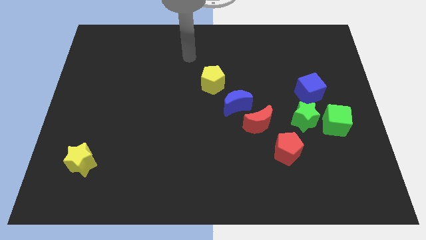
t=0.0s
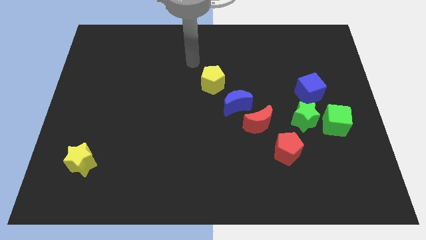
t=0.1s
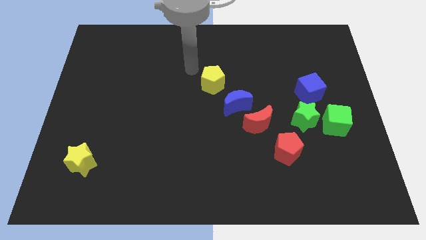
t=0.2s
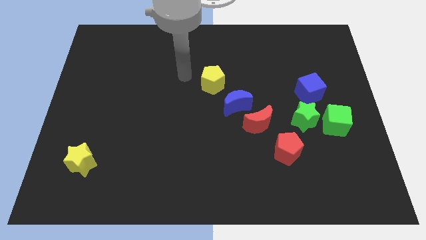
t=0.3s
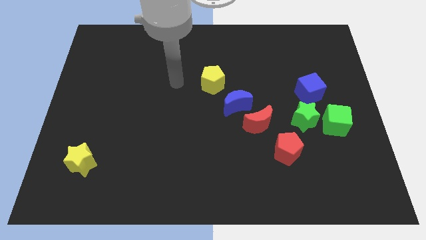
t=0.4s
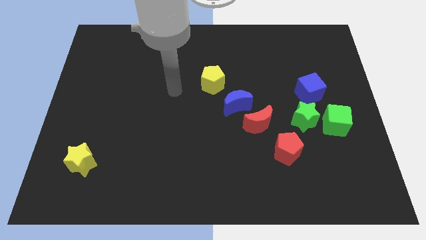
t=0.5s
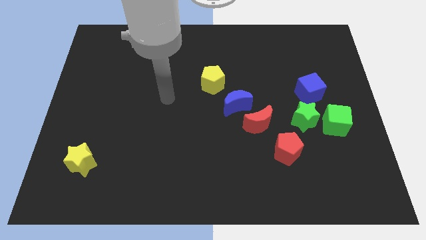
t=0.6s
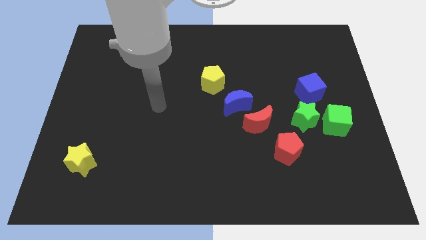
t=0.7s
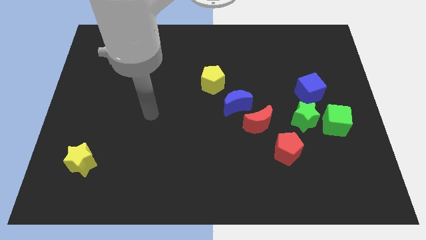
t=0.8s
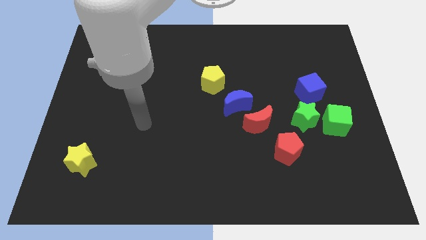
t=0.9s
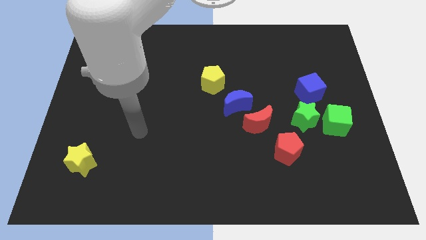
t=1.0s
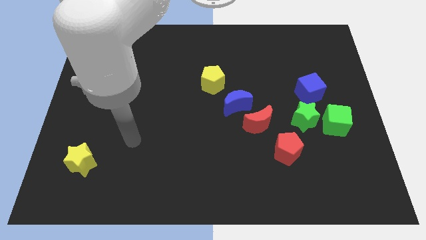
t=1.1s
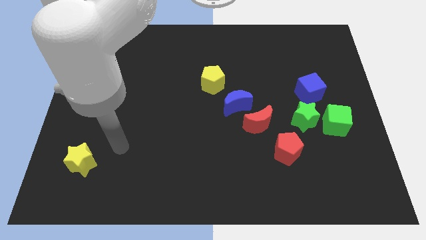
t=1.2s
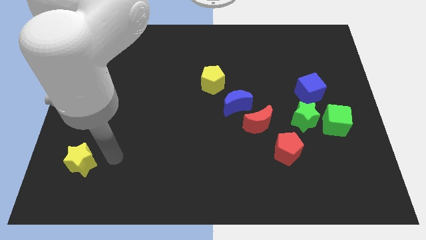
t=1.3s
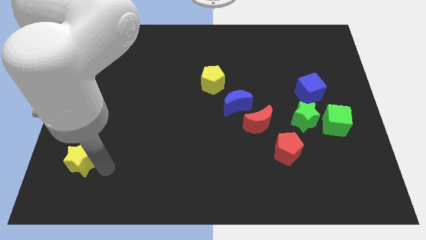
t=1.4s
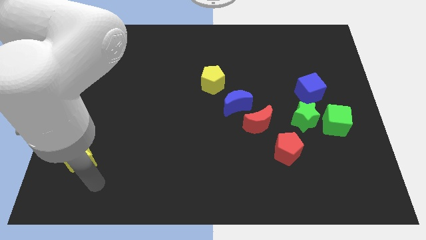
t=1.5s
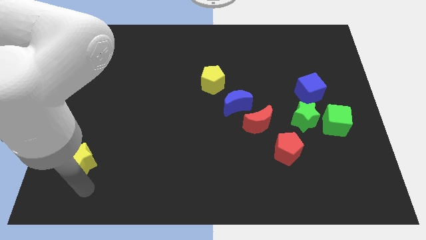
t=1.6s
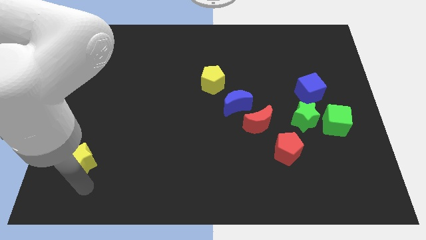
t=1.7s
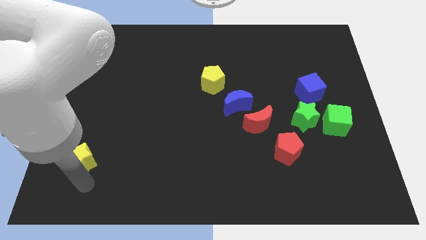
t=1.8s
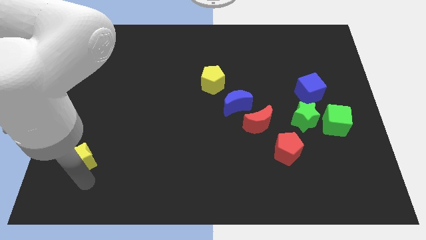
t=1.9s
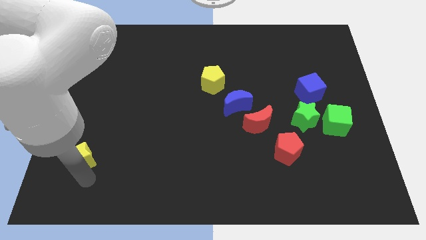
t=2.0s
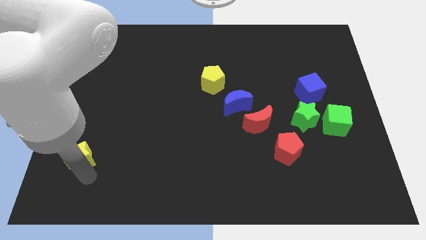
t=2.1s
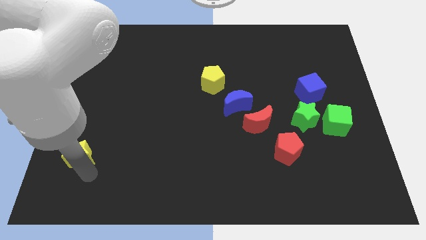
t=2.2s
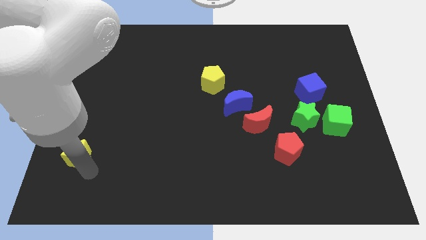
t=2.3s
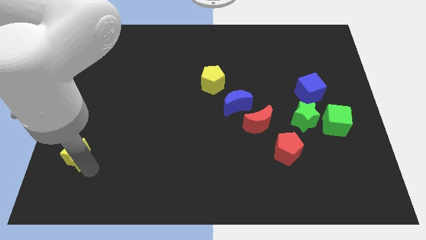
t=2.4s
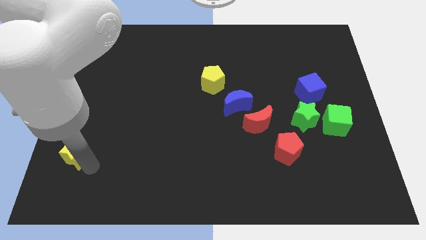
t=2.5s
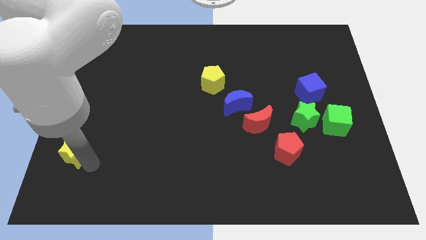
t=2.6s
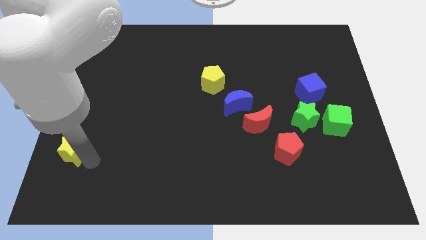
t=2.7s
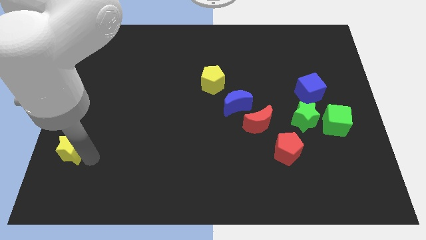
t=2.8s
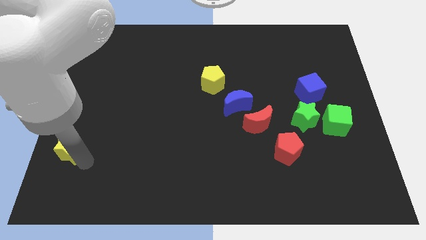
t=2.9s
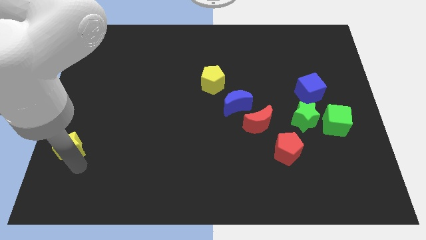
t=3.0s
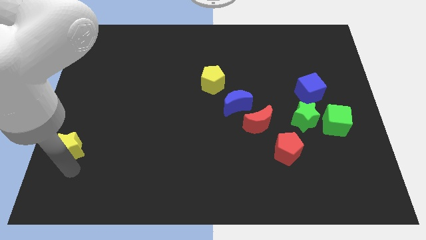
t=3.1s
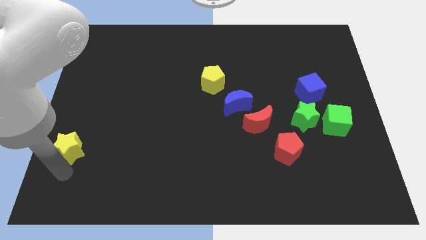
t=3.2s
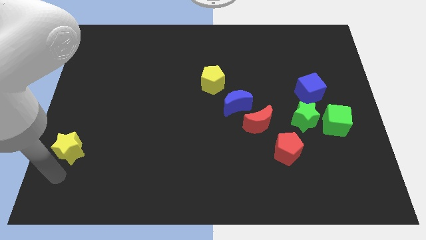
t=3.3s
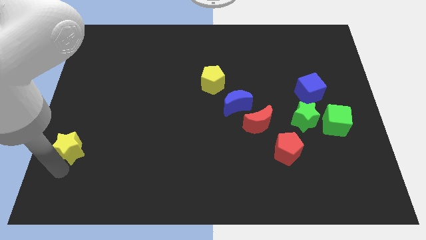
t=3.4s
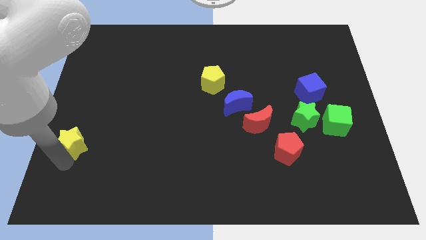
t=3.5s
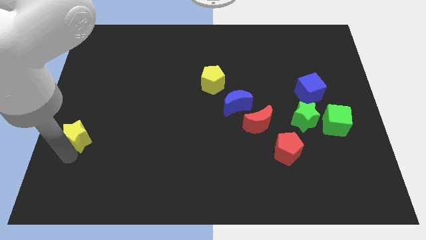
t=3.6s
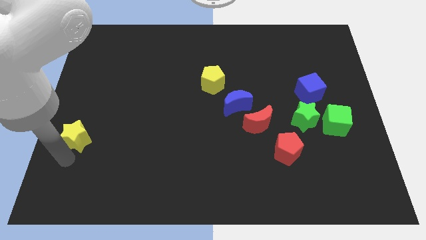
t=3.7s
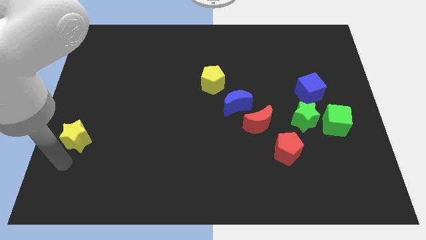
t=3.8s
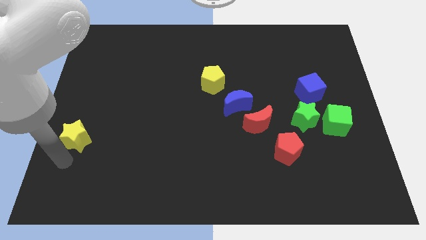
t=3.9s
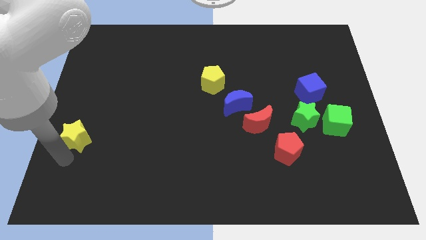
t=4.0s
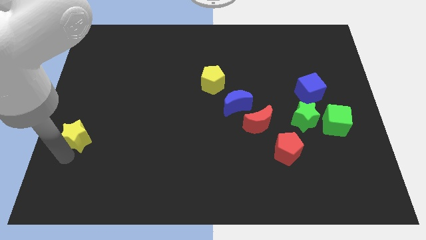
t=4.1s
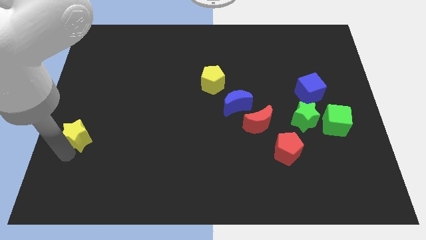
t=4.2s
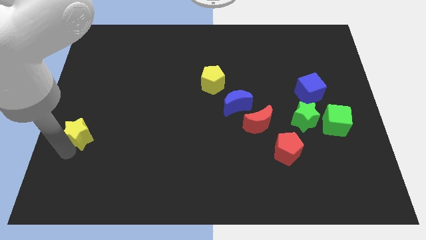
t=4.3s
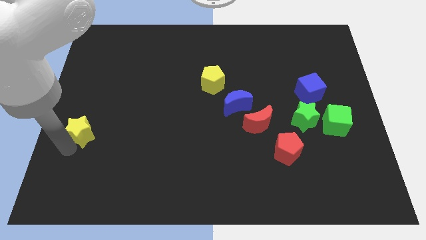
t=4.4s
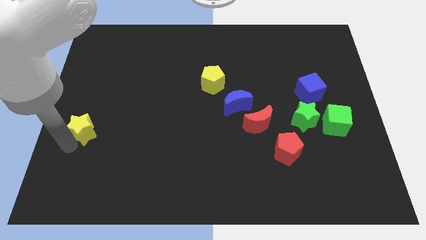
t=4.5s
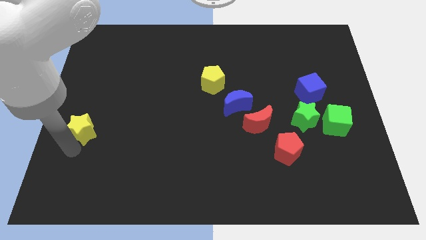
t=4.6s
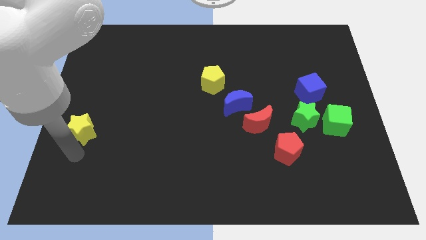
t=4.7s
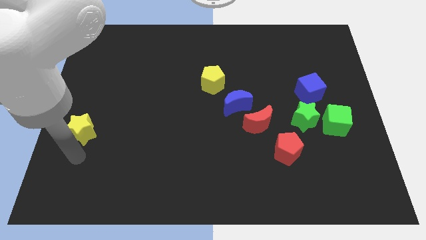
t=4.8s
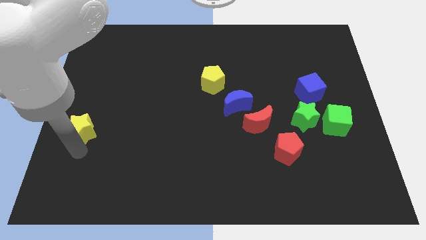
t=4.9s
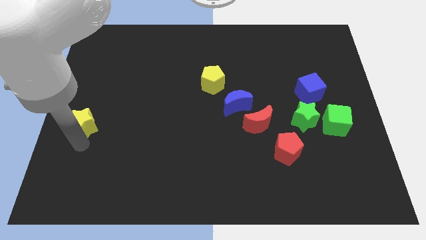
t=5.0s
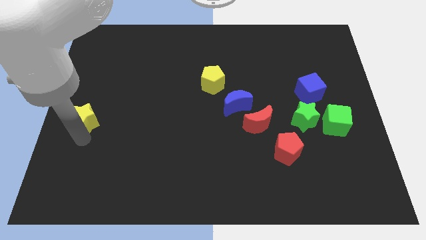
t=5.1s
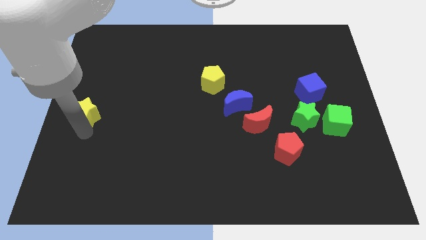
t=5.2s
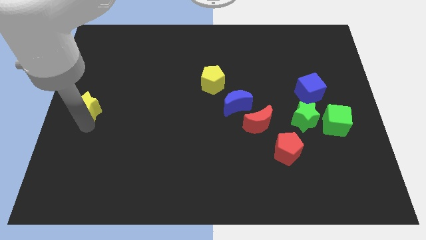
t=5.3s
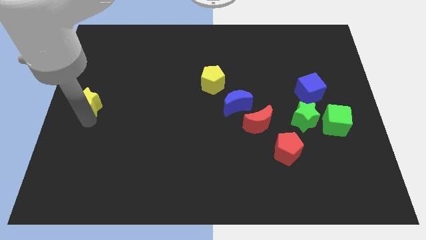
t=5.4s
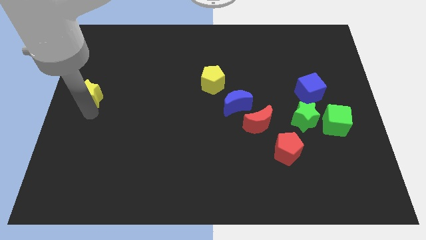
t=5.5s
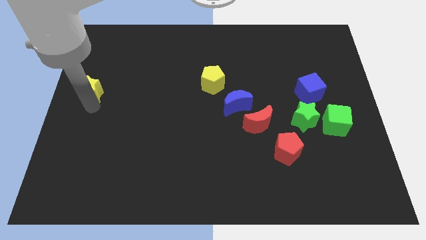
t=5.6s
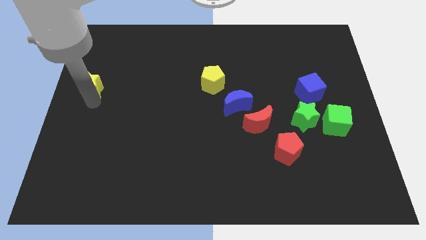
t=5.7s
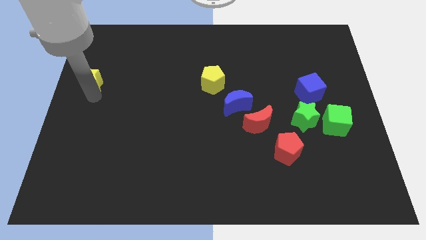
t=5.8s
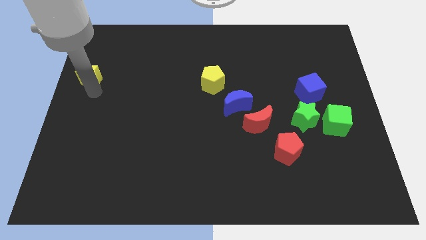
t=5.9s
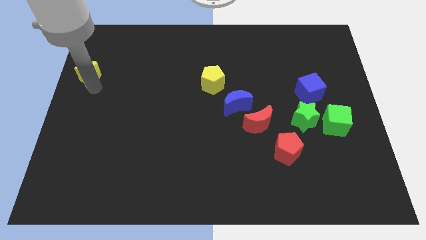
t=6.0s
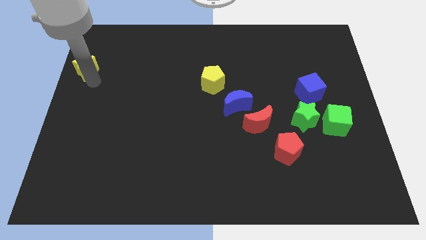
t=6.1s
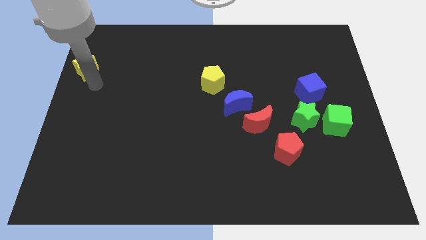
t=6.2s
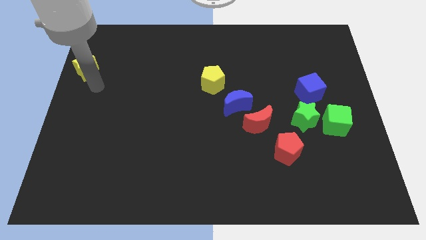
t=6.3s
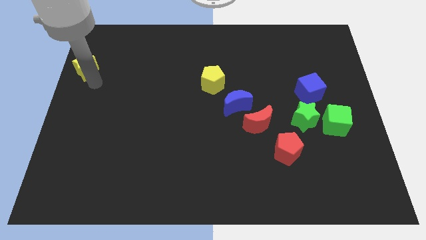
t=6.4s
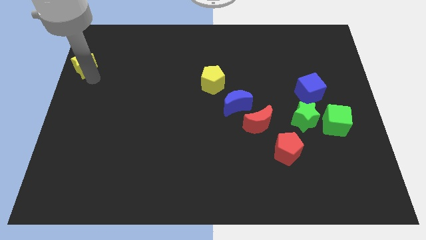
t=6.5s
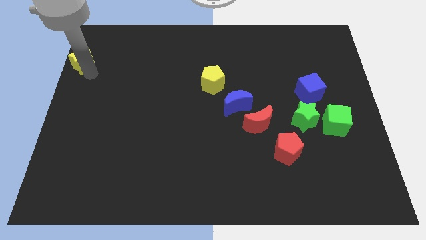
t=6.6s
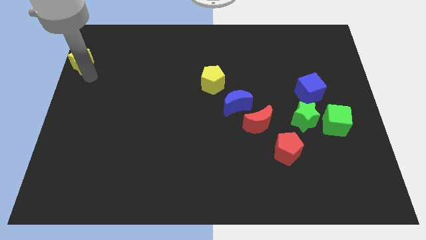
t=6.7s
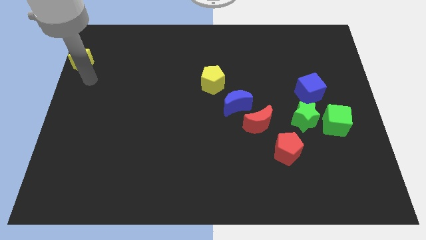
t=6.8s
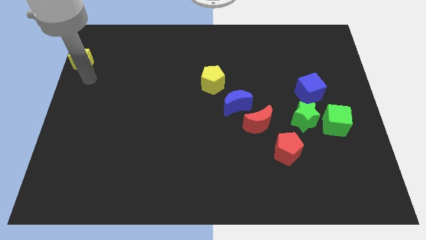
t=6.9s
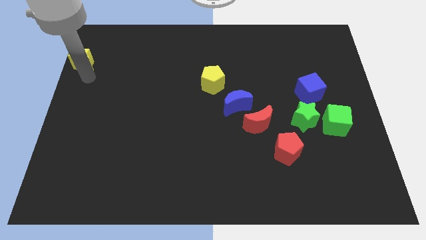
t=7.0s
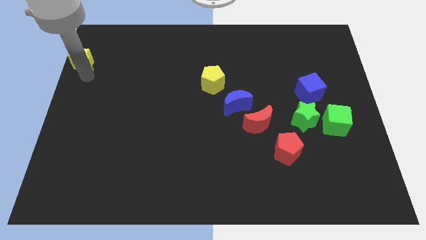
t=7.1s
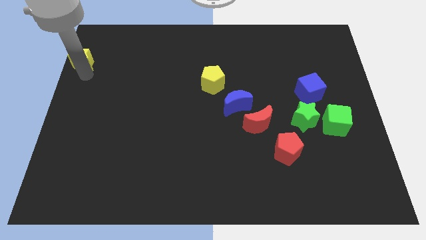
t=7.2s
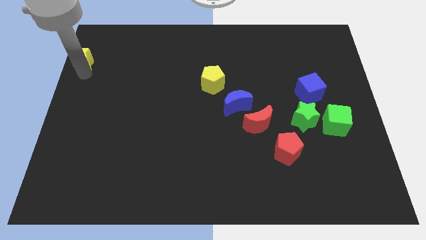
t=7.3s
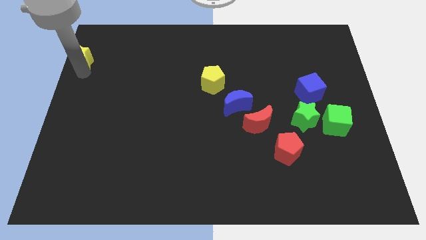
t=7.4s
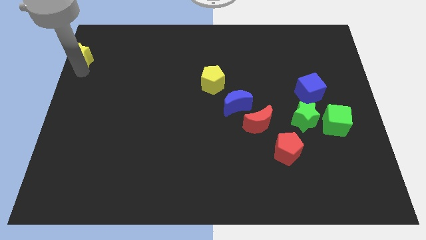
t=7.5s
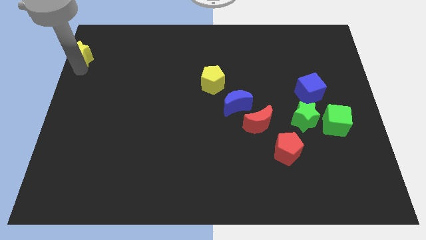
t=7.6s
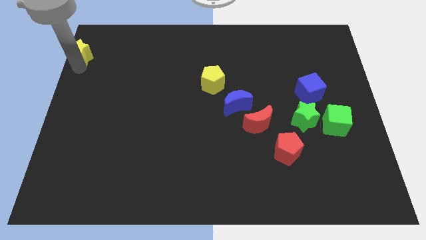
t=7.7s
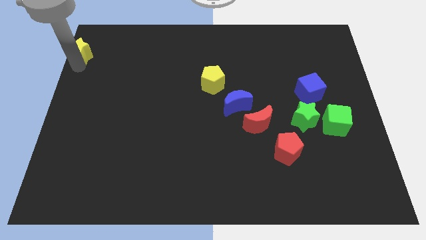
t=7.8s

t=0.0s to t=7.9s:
push the yellow star to the top left
